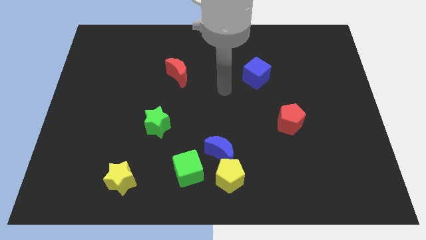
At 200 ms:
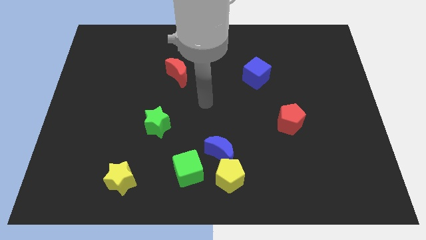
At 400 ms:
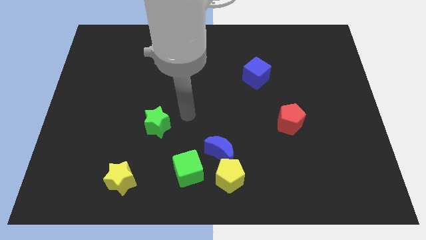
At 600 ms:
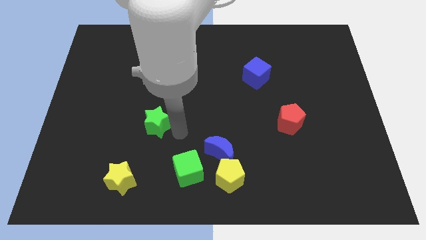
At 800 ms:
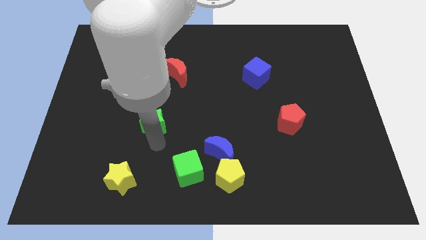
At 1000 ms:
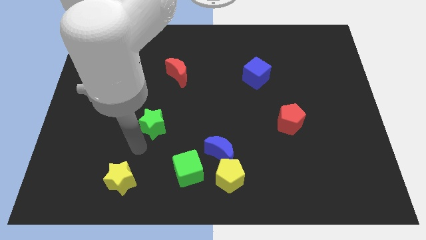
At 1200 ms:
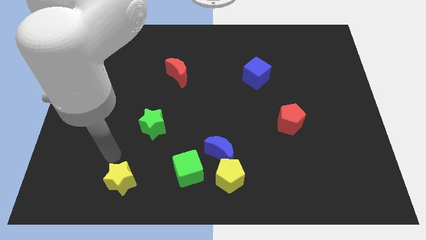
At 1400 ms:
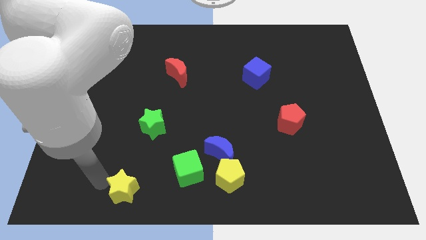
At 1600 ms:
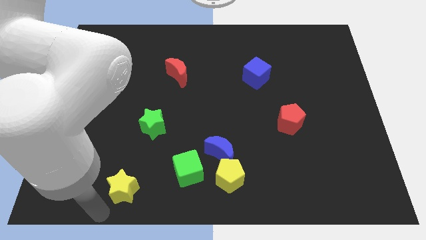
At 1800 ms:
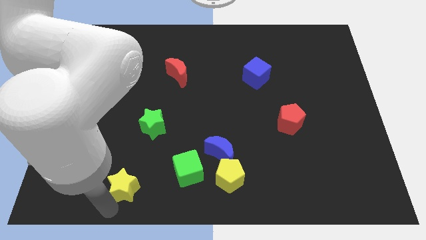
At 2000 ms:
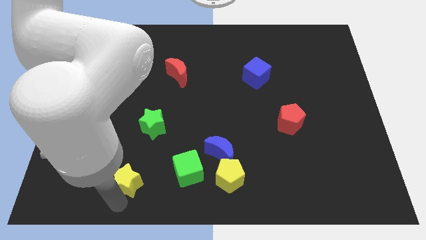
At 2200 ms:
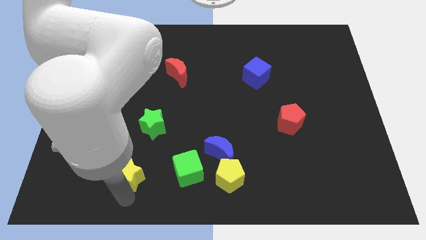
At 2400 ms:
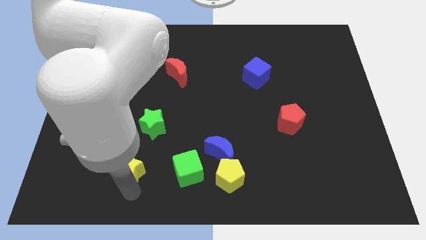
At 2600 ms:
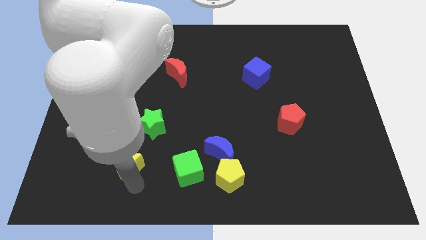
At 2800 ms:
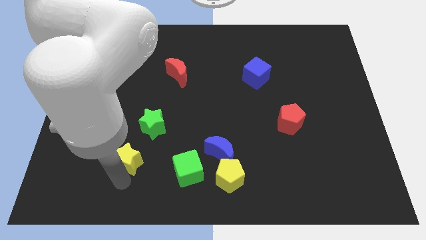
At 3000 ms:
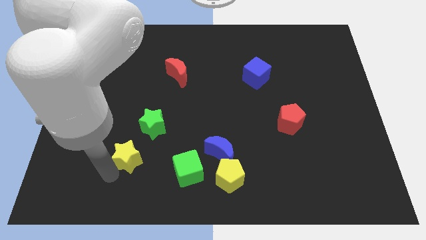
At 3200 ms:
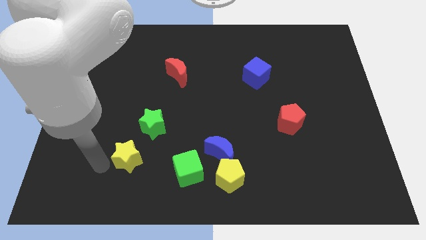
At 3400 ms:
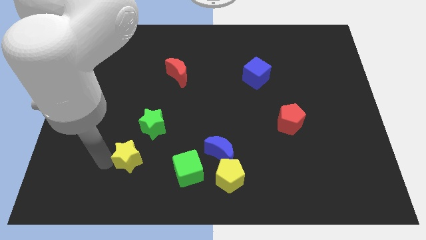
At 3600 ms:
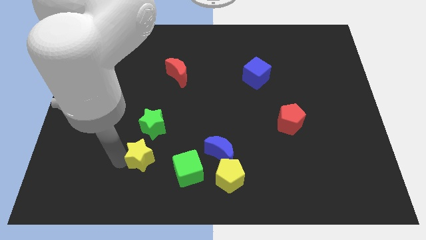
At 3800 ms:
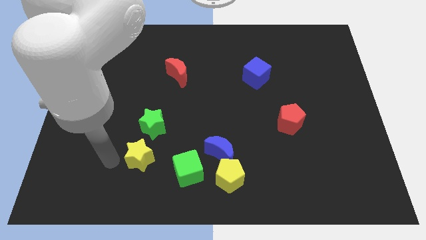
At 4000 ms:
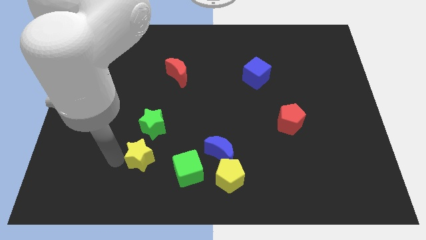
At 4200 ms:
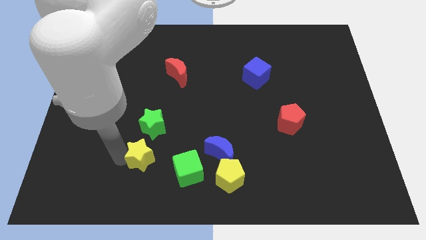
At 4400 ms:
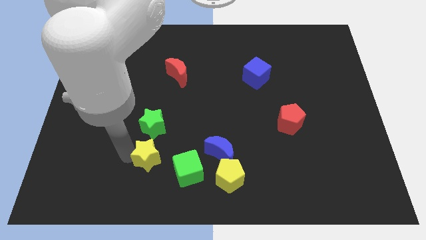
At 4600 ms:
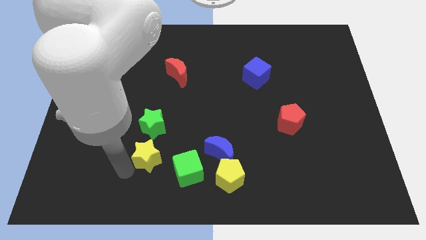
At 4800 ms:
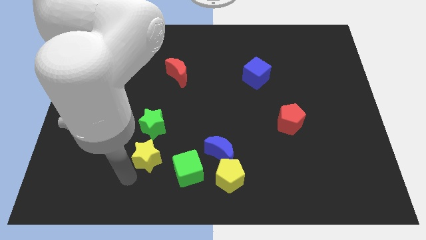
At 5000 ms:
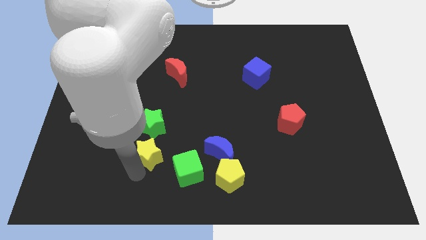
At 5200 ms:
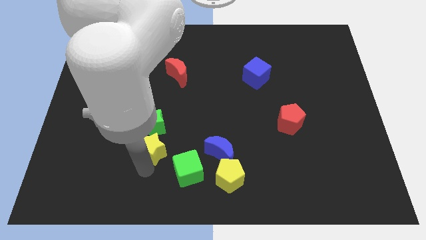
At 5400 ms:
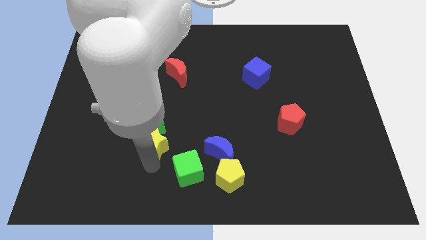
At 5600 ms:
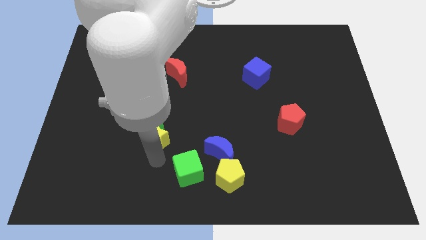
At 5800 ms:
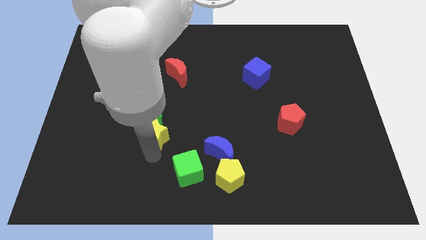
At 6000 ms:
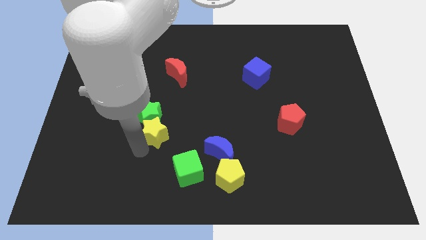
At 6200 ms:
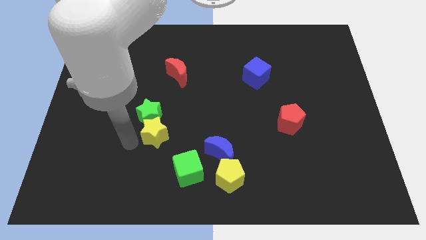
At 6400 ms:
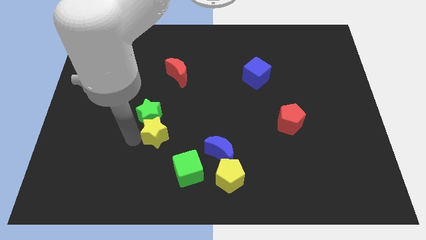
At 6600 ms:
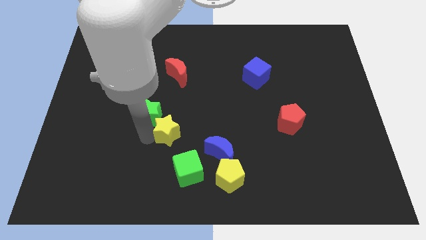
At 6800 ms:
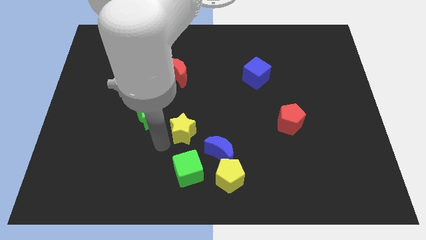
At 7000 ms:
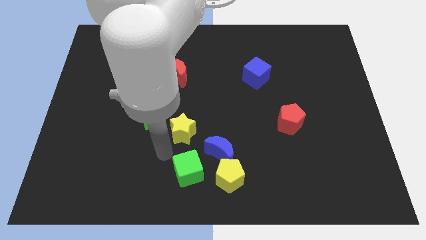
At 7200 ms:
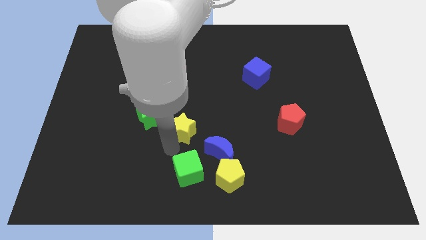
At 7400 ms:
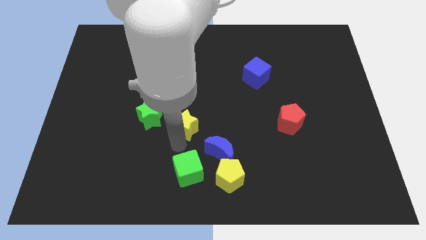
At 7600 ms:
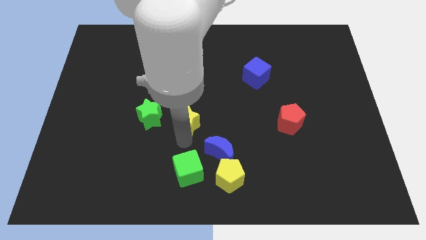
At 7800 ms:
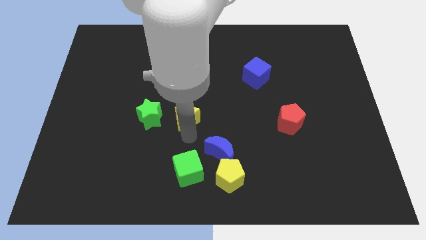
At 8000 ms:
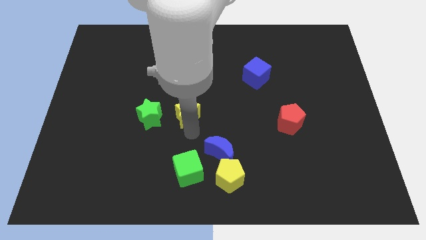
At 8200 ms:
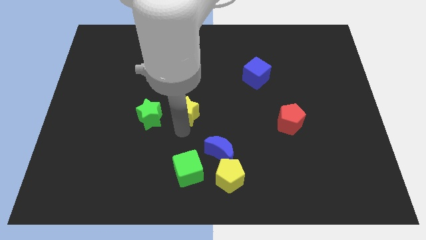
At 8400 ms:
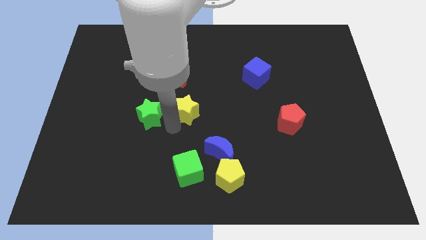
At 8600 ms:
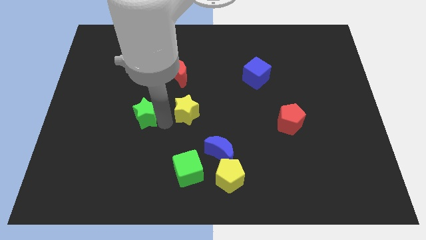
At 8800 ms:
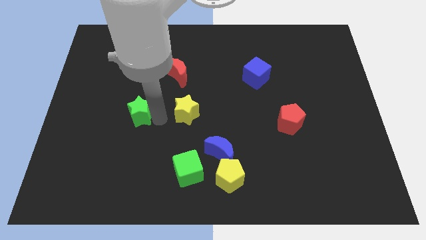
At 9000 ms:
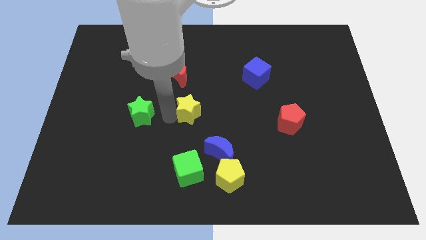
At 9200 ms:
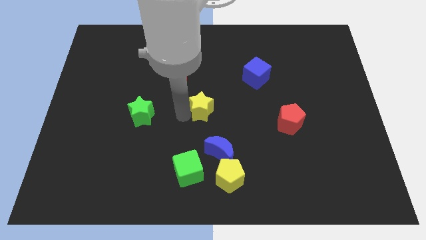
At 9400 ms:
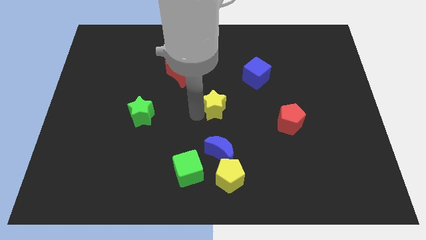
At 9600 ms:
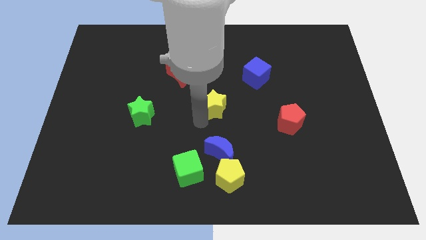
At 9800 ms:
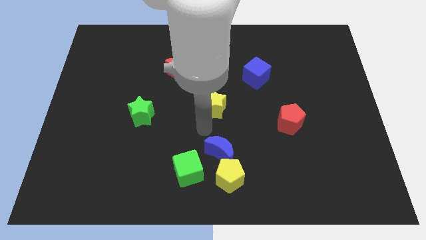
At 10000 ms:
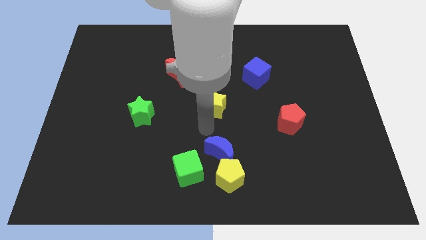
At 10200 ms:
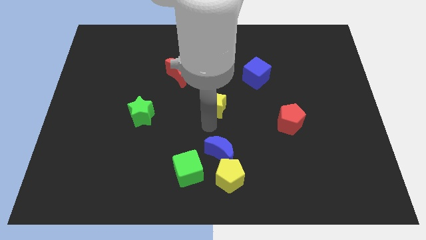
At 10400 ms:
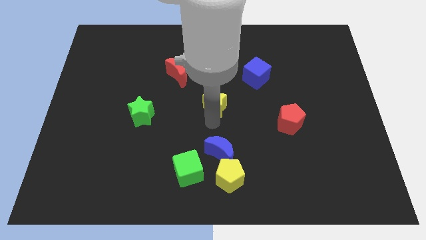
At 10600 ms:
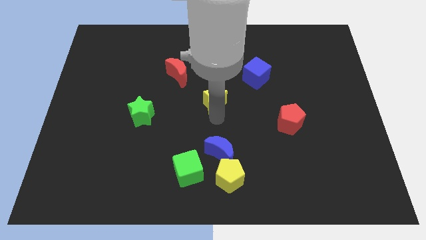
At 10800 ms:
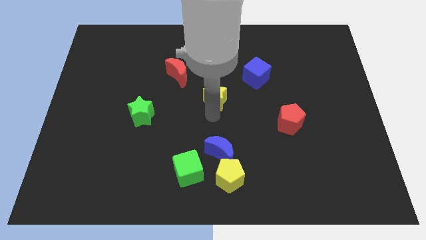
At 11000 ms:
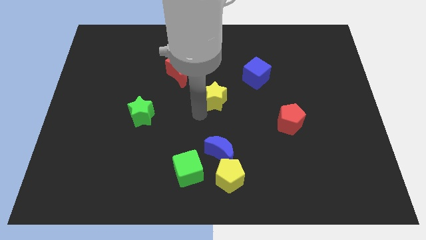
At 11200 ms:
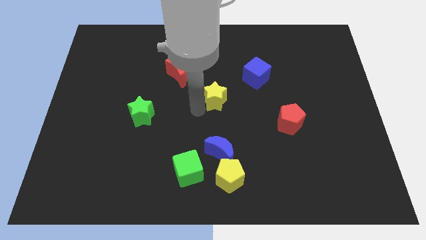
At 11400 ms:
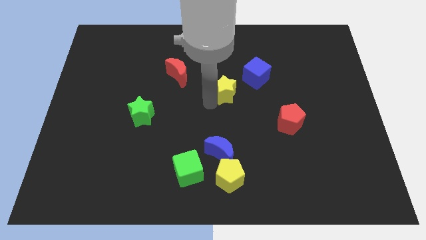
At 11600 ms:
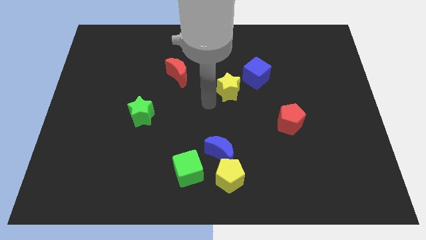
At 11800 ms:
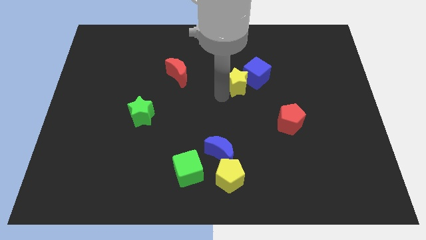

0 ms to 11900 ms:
slide the yellow star to the blue cube

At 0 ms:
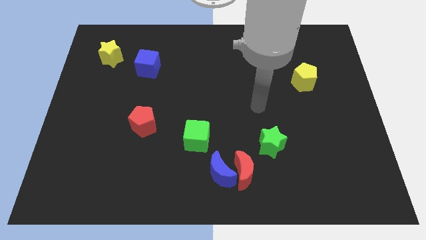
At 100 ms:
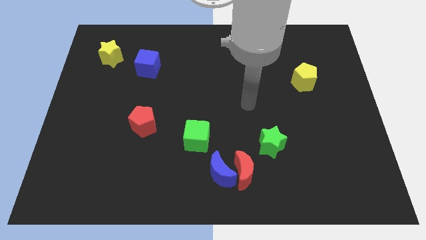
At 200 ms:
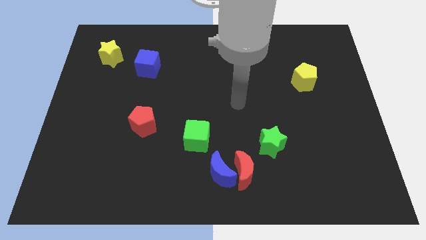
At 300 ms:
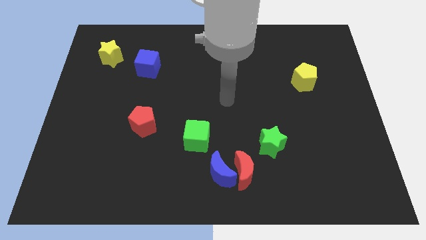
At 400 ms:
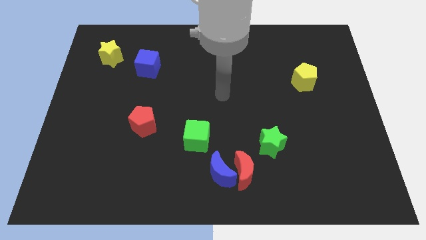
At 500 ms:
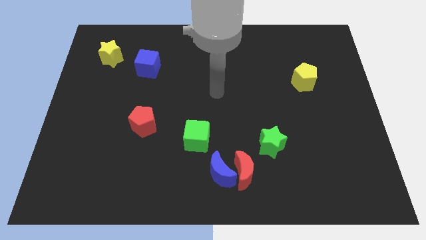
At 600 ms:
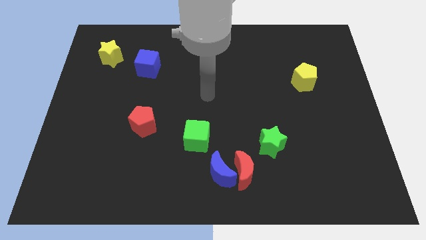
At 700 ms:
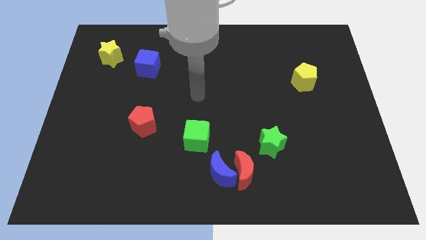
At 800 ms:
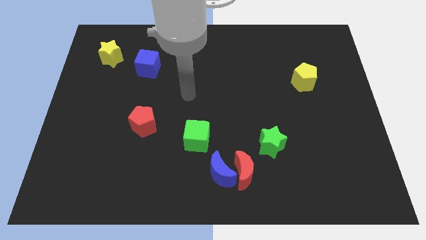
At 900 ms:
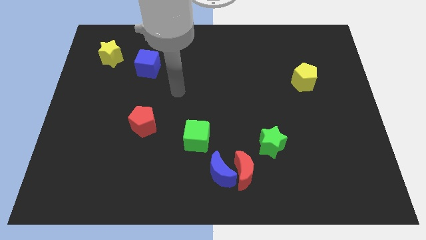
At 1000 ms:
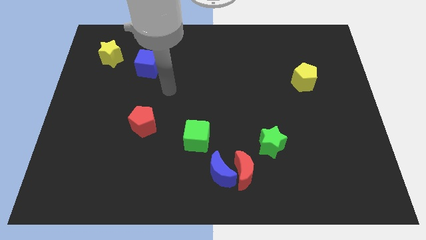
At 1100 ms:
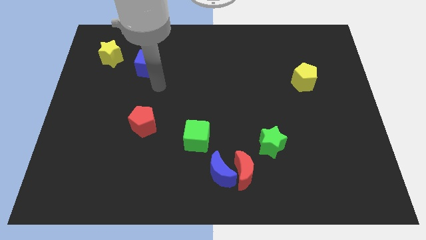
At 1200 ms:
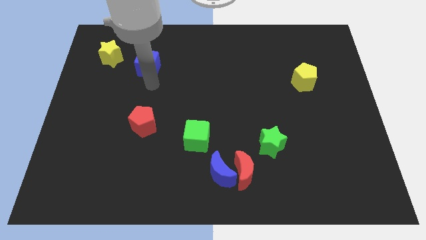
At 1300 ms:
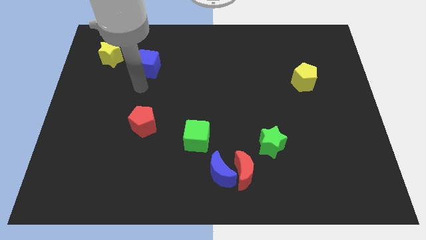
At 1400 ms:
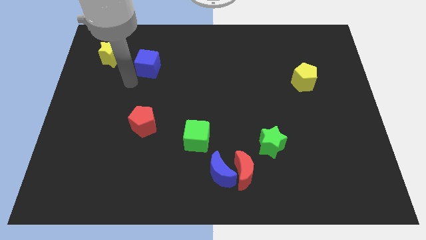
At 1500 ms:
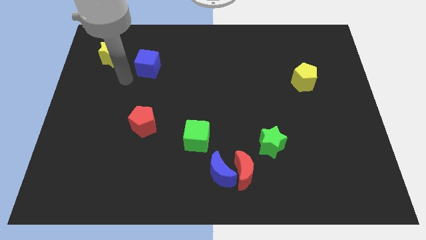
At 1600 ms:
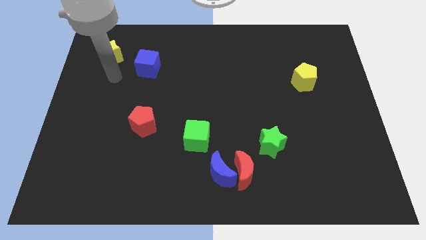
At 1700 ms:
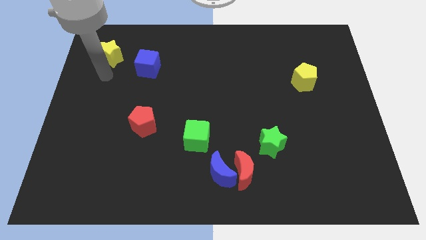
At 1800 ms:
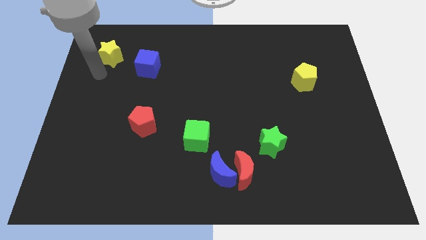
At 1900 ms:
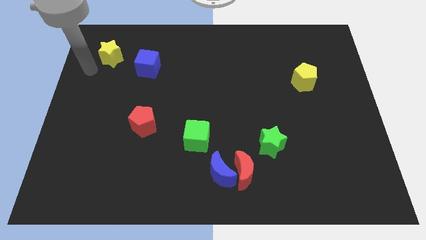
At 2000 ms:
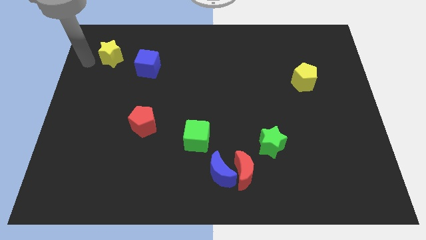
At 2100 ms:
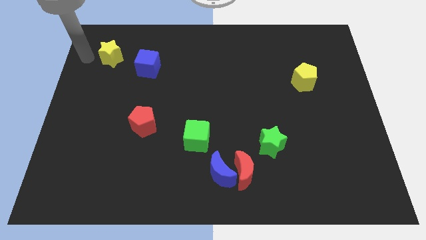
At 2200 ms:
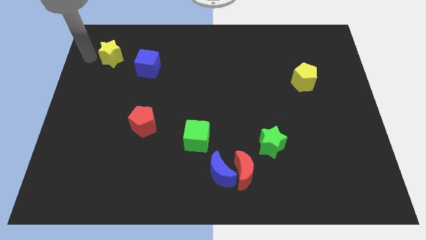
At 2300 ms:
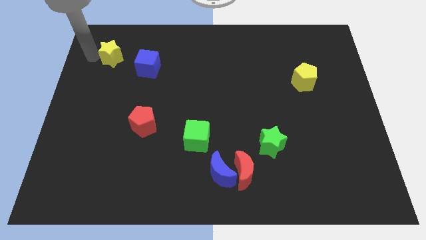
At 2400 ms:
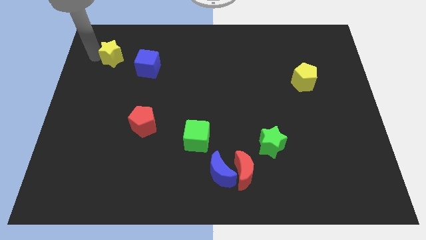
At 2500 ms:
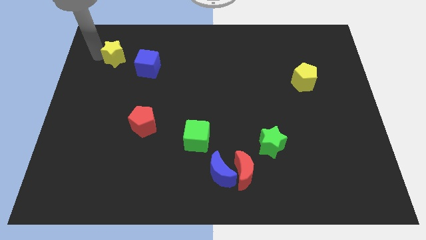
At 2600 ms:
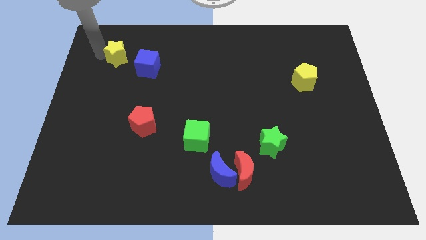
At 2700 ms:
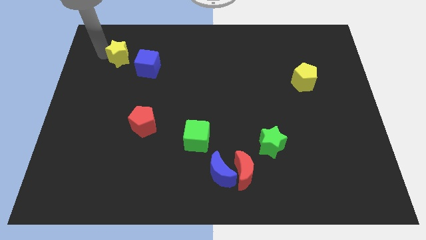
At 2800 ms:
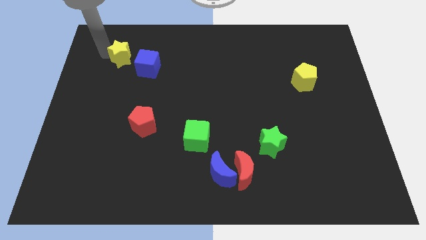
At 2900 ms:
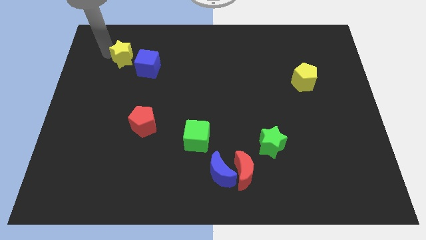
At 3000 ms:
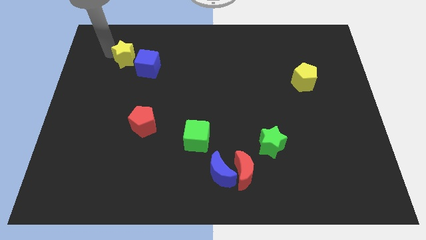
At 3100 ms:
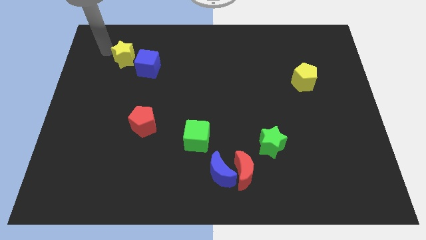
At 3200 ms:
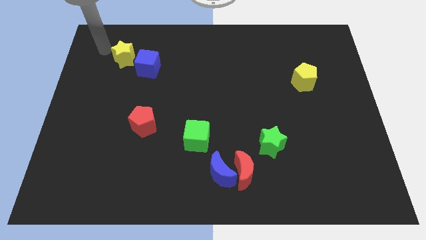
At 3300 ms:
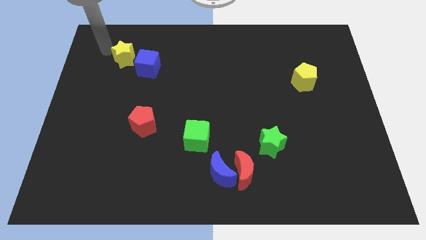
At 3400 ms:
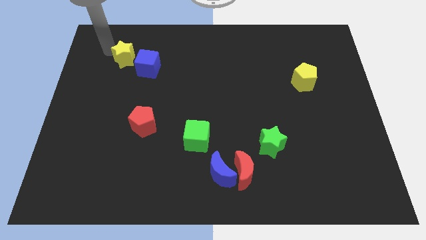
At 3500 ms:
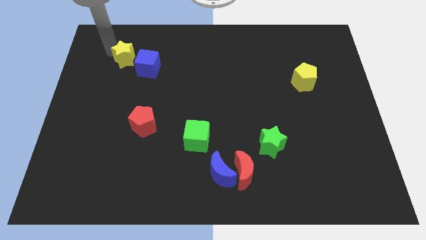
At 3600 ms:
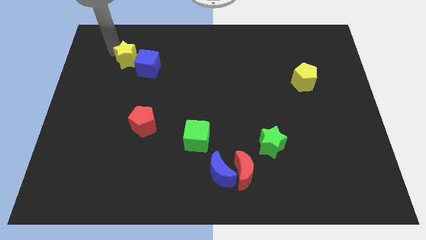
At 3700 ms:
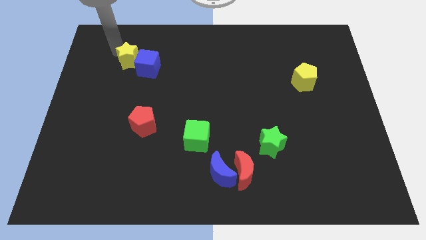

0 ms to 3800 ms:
push the yellow star to the blue cube
